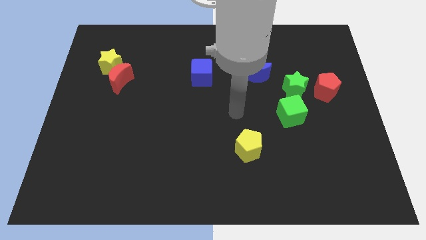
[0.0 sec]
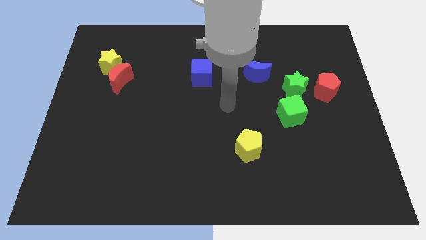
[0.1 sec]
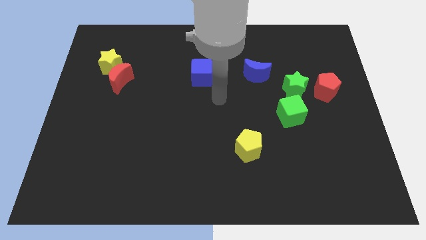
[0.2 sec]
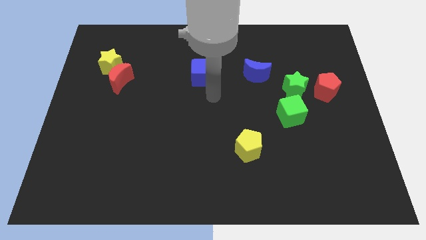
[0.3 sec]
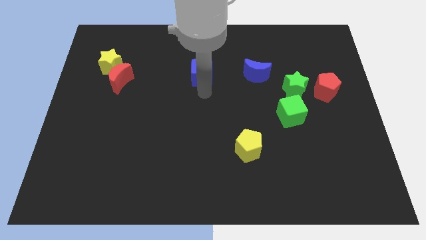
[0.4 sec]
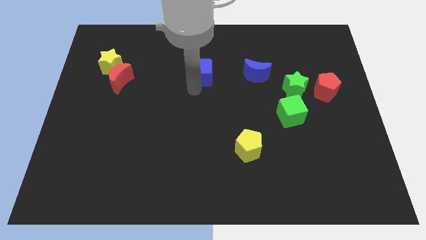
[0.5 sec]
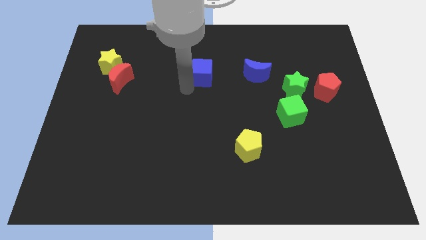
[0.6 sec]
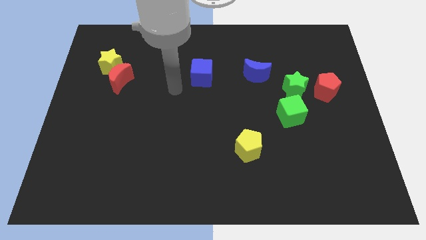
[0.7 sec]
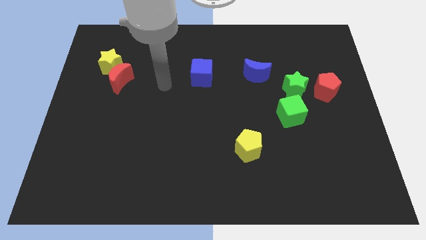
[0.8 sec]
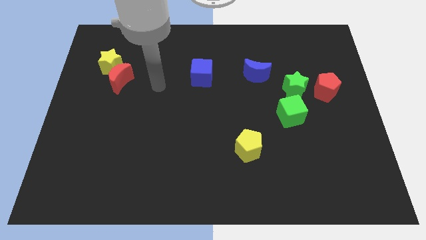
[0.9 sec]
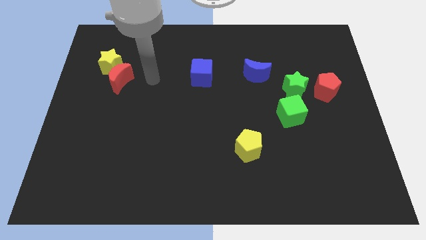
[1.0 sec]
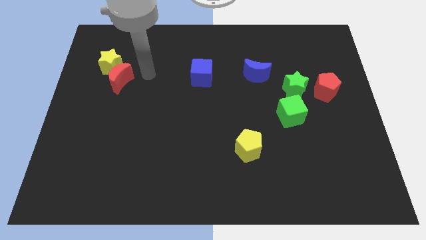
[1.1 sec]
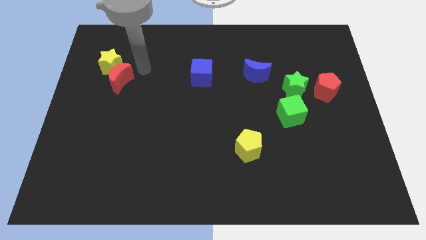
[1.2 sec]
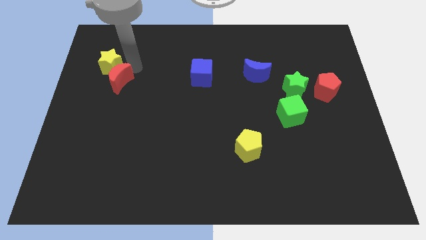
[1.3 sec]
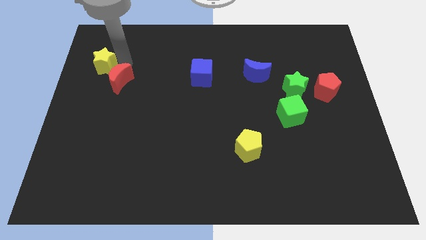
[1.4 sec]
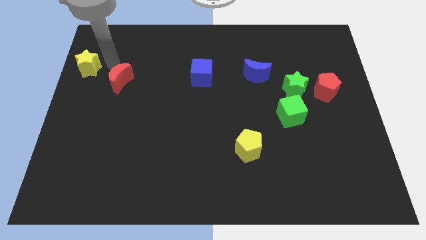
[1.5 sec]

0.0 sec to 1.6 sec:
separate the red moon from the yellow star

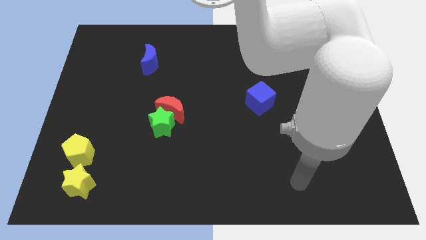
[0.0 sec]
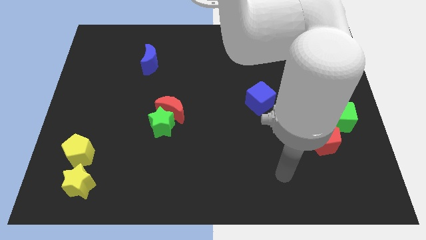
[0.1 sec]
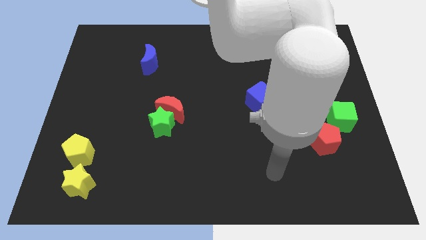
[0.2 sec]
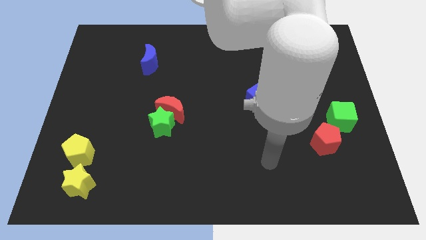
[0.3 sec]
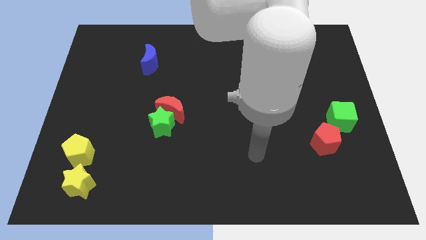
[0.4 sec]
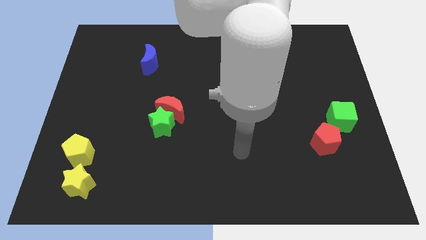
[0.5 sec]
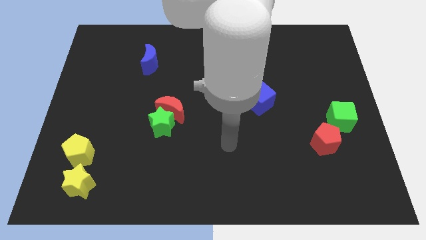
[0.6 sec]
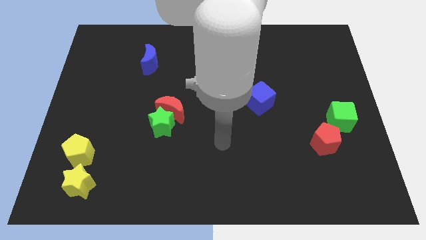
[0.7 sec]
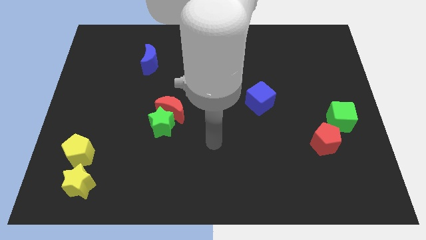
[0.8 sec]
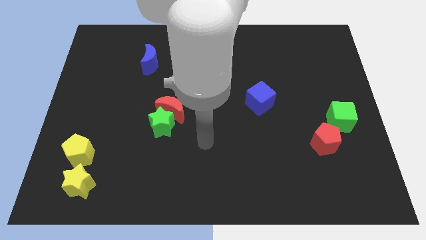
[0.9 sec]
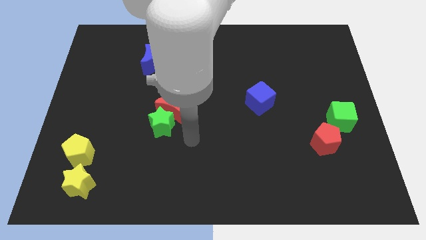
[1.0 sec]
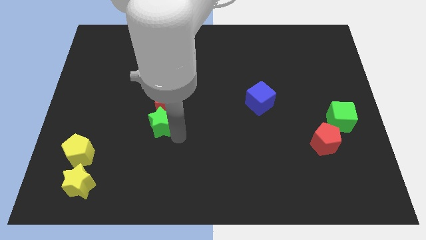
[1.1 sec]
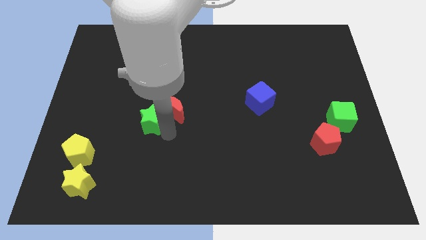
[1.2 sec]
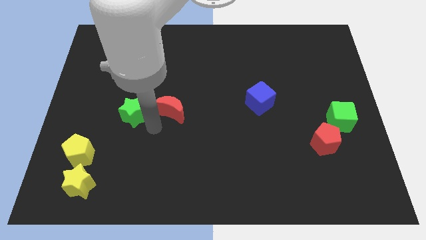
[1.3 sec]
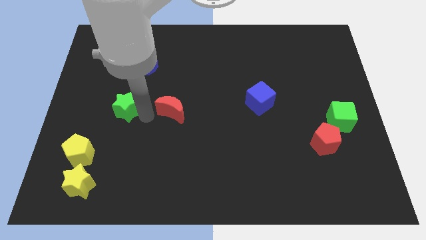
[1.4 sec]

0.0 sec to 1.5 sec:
separate the red moon from the green star

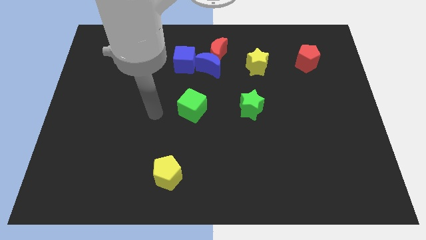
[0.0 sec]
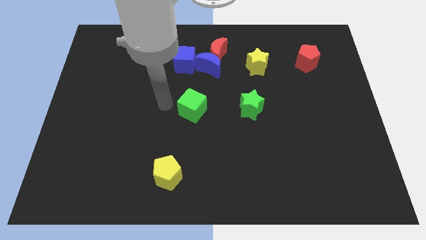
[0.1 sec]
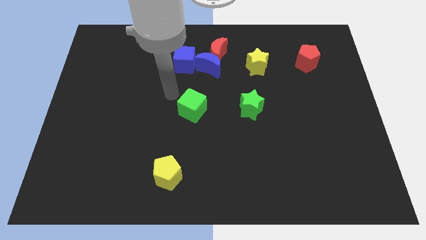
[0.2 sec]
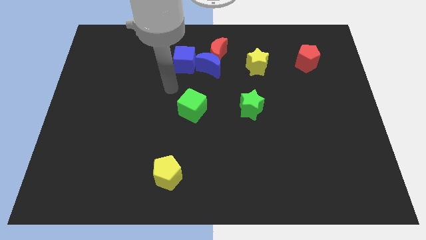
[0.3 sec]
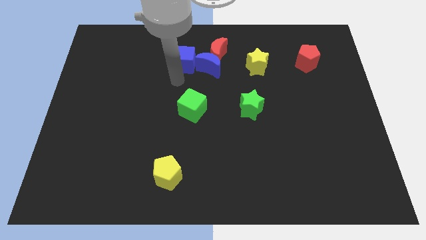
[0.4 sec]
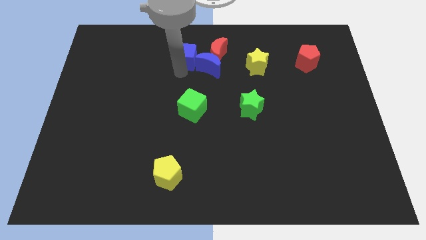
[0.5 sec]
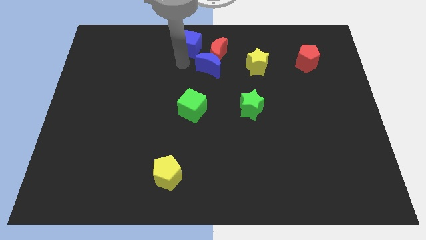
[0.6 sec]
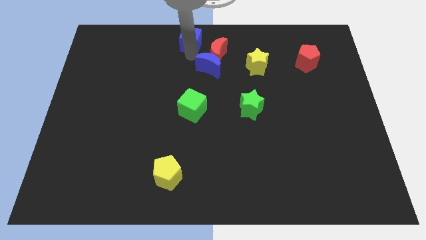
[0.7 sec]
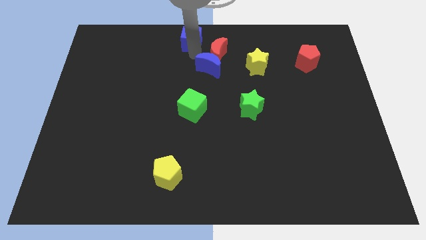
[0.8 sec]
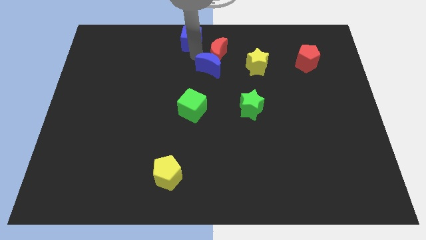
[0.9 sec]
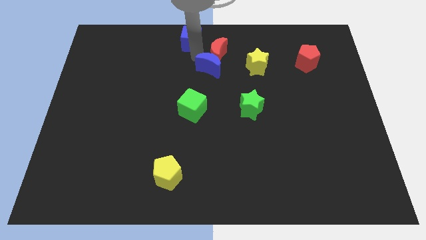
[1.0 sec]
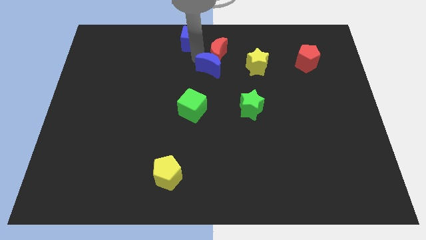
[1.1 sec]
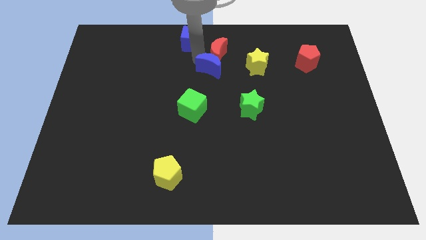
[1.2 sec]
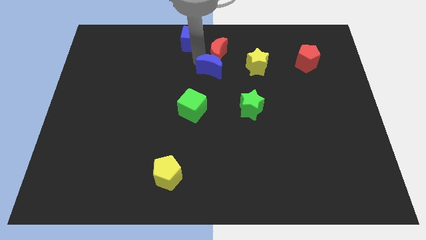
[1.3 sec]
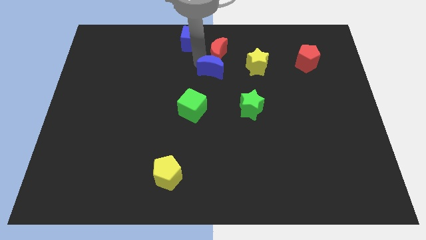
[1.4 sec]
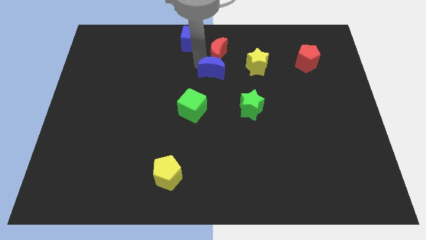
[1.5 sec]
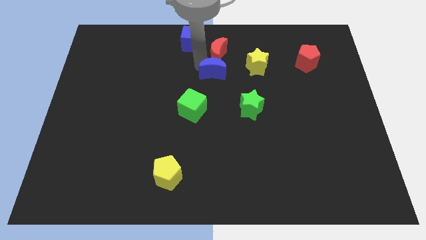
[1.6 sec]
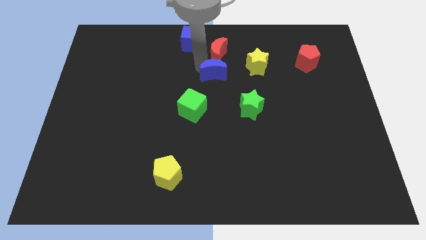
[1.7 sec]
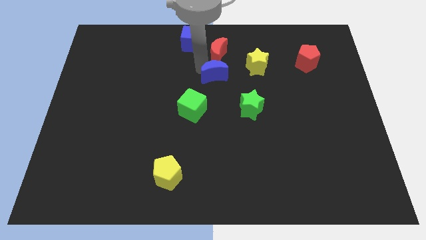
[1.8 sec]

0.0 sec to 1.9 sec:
separate the blue moon from the red moon and blue cube

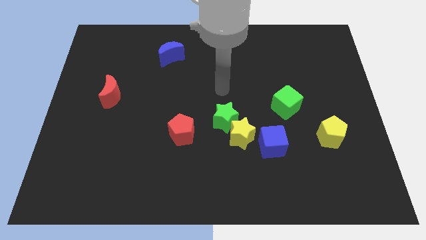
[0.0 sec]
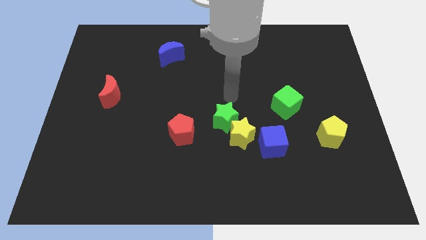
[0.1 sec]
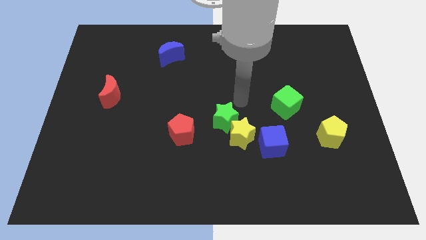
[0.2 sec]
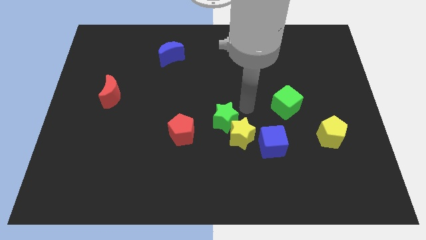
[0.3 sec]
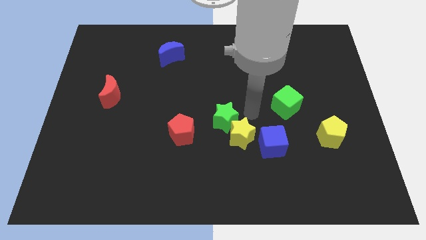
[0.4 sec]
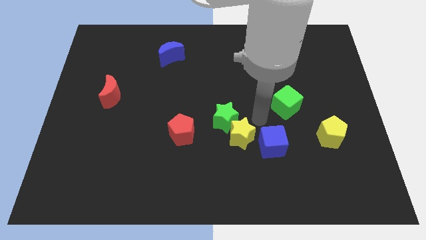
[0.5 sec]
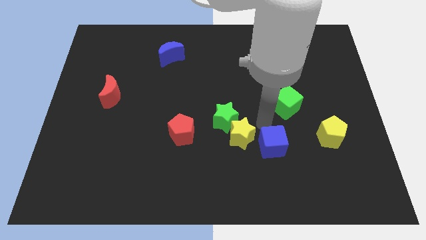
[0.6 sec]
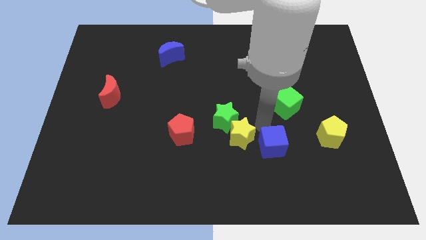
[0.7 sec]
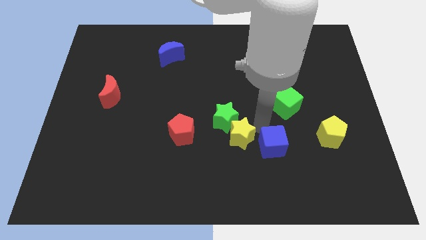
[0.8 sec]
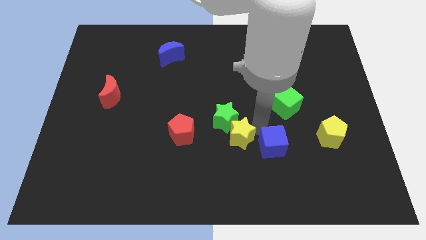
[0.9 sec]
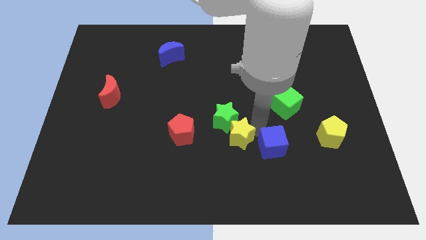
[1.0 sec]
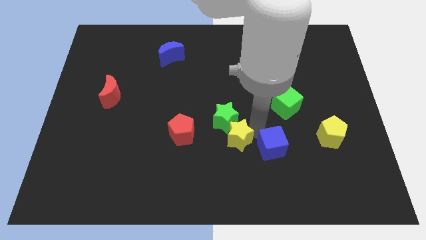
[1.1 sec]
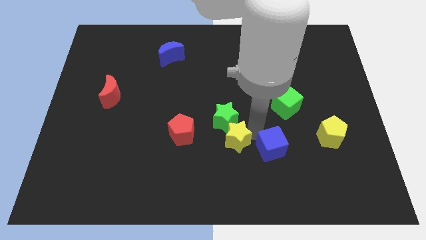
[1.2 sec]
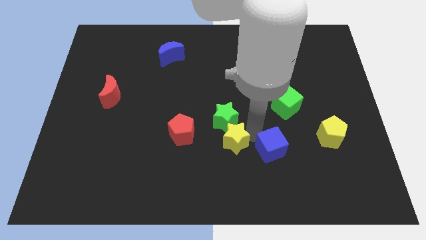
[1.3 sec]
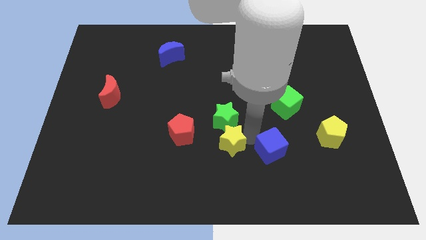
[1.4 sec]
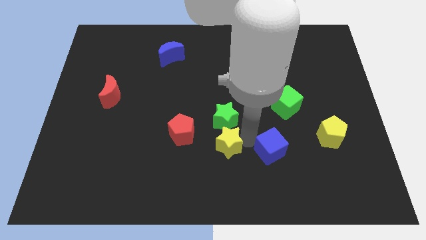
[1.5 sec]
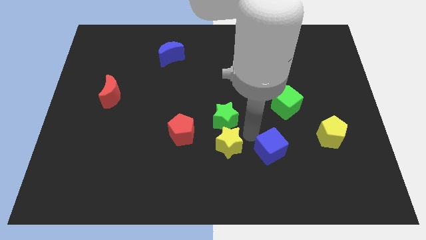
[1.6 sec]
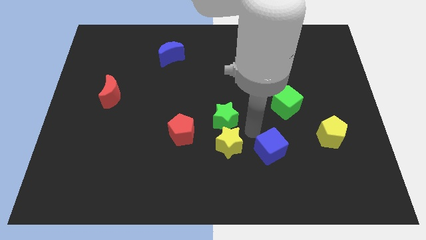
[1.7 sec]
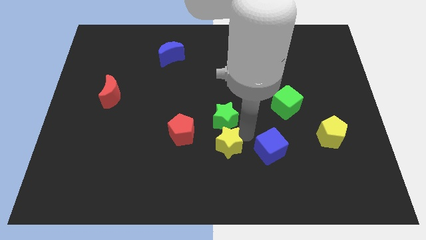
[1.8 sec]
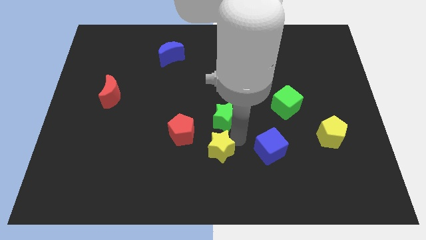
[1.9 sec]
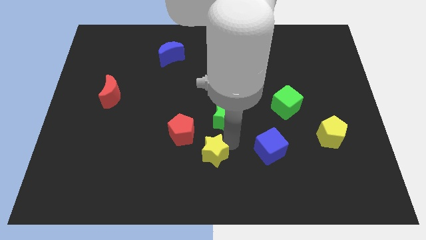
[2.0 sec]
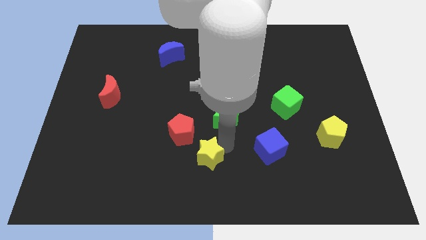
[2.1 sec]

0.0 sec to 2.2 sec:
separate the yellow star from the green star and blue cube

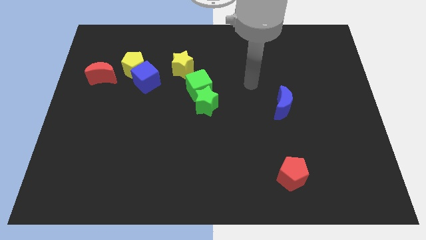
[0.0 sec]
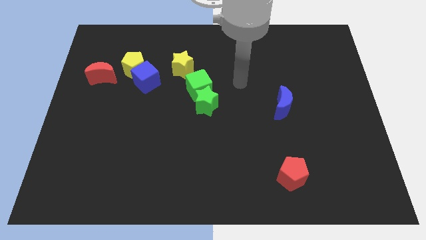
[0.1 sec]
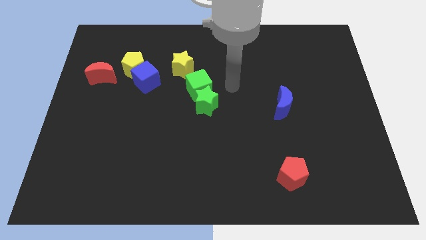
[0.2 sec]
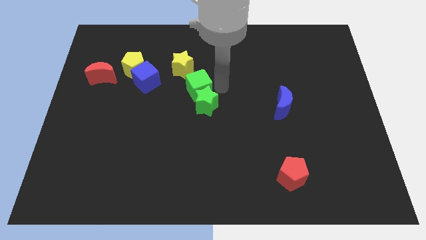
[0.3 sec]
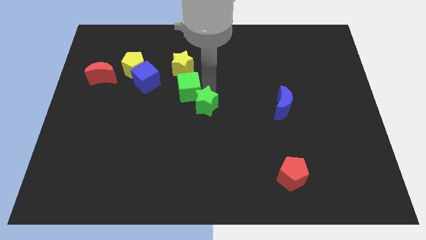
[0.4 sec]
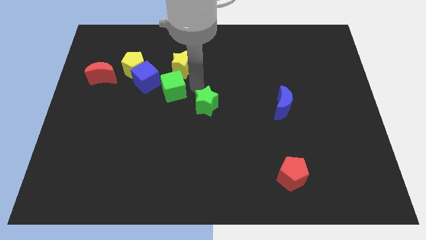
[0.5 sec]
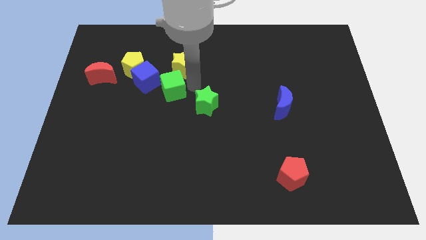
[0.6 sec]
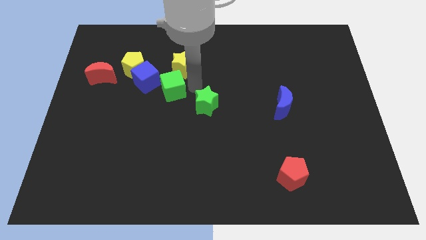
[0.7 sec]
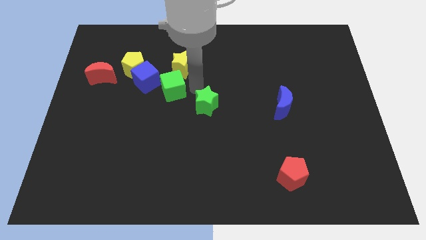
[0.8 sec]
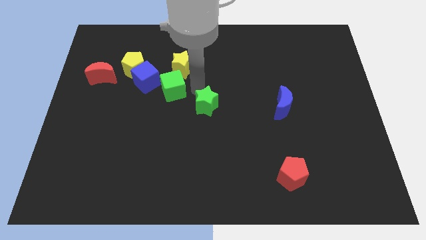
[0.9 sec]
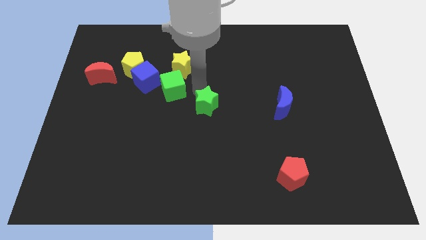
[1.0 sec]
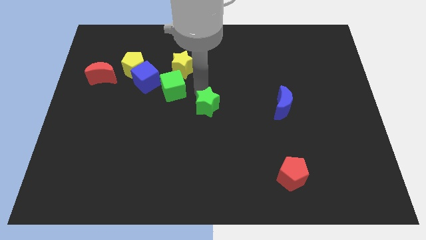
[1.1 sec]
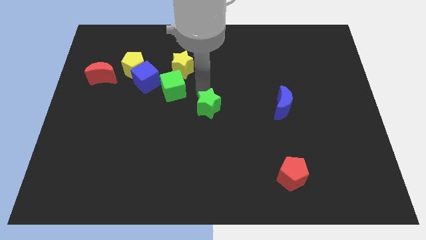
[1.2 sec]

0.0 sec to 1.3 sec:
move the green star away from the green cube

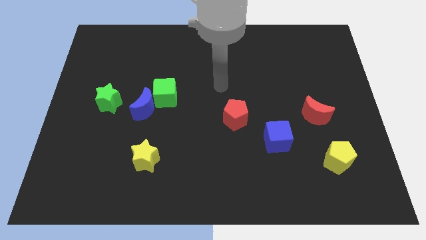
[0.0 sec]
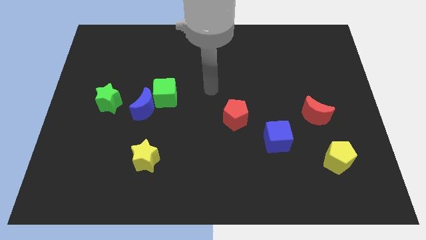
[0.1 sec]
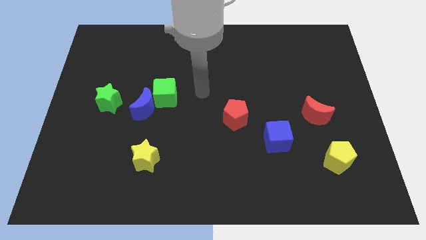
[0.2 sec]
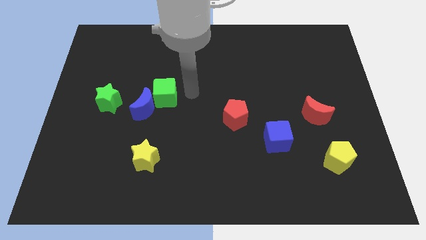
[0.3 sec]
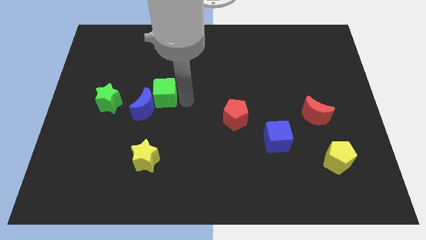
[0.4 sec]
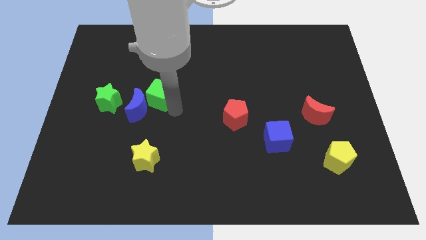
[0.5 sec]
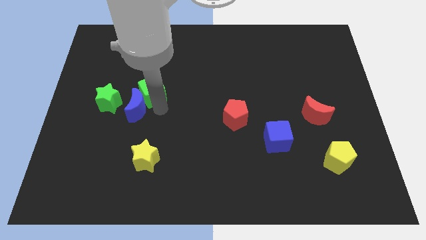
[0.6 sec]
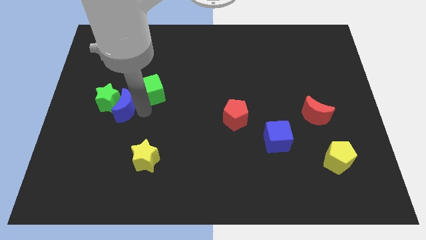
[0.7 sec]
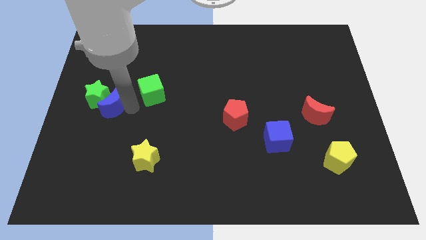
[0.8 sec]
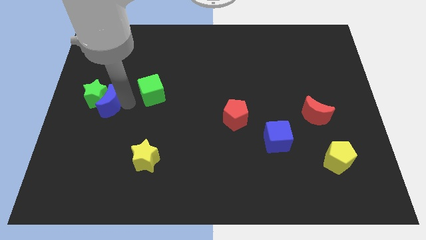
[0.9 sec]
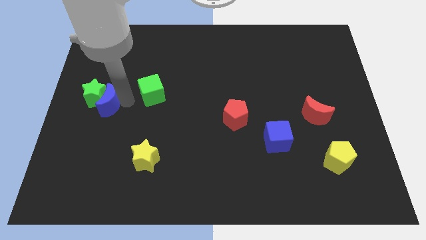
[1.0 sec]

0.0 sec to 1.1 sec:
separate the green cube from the blue moon
